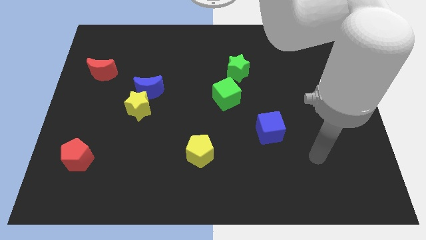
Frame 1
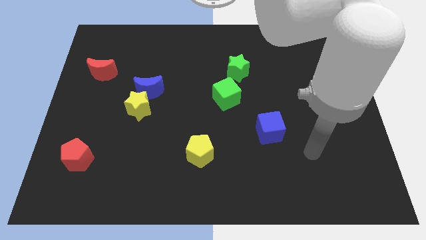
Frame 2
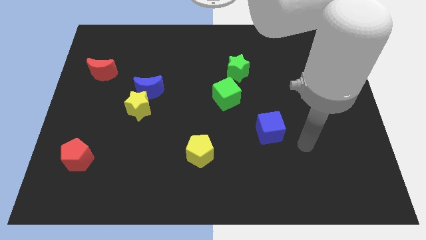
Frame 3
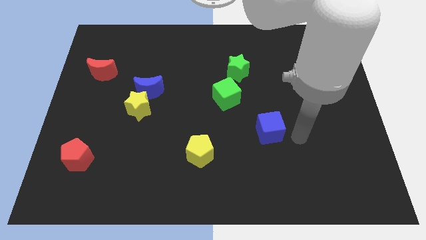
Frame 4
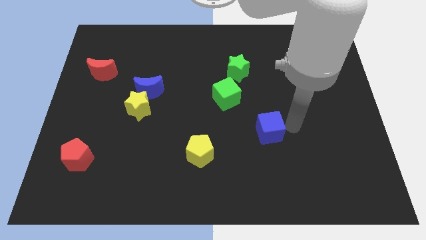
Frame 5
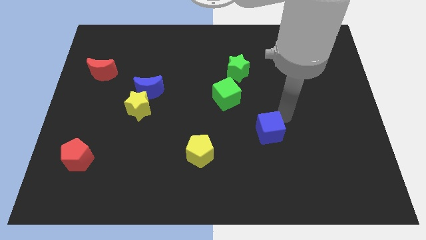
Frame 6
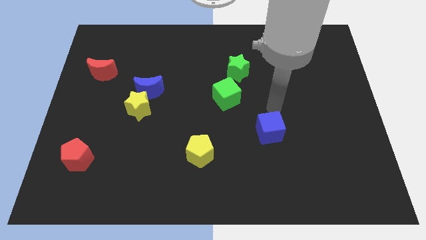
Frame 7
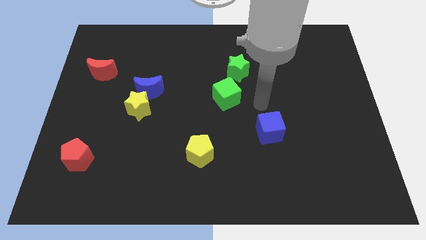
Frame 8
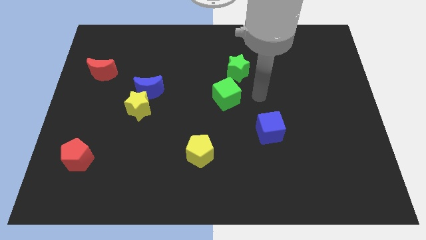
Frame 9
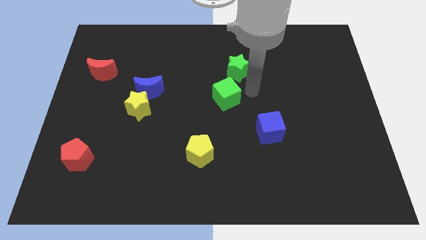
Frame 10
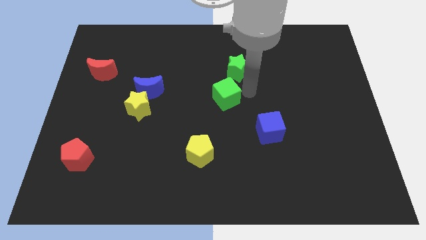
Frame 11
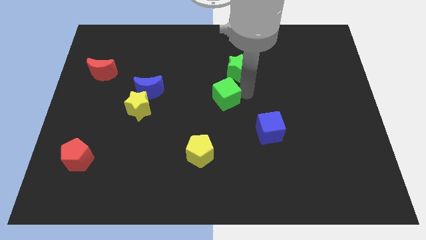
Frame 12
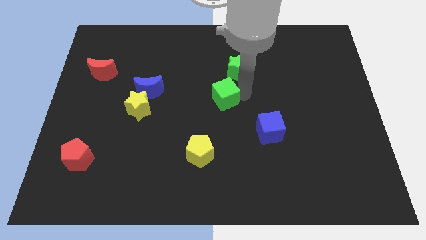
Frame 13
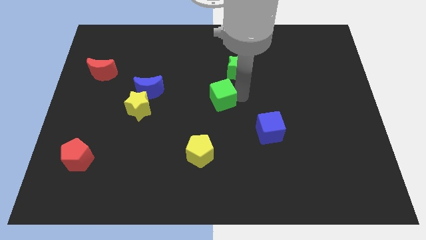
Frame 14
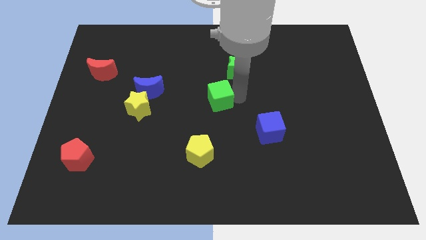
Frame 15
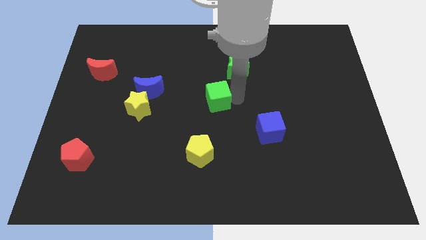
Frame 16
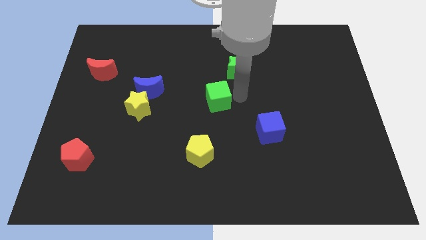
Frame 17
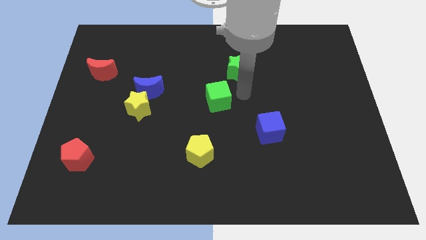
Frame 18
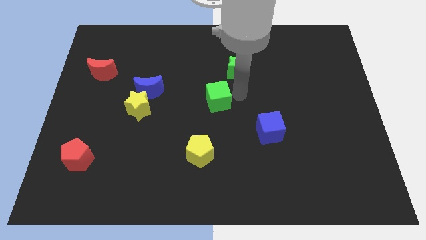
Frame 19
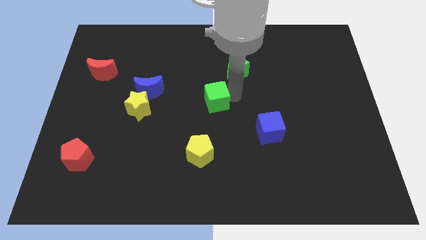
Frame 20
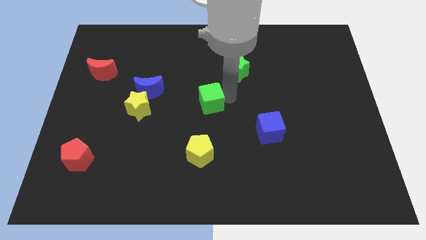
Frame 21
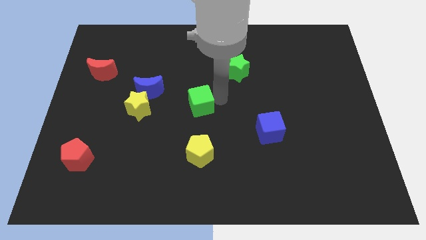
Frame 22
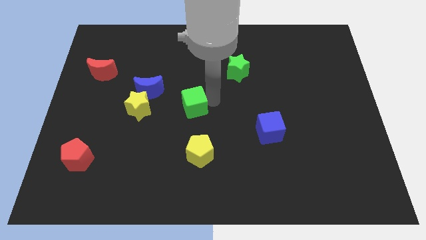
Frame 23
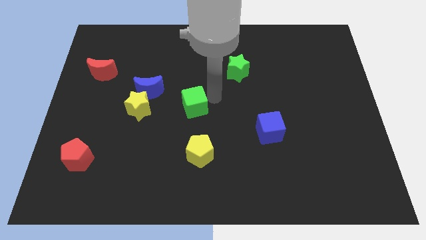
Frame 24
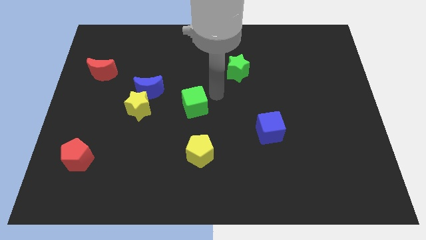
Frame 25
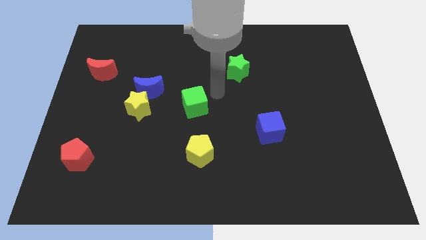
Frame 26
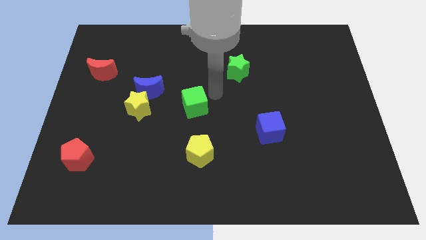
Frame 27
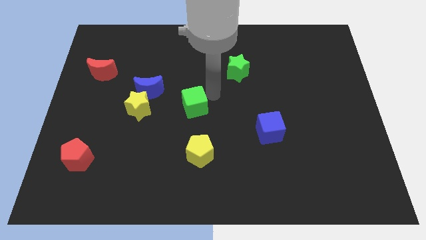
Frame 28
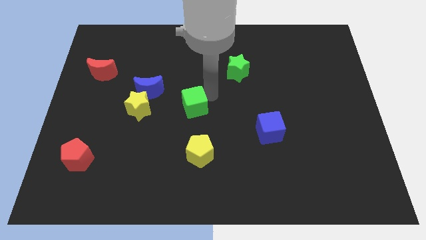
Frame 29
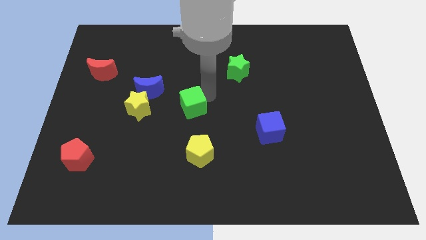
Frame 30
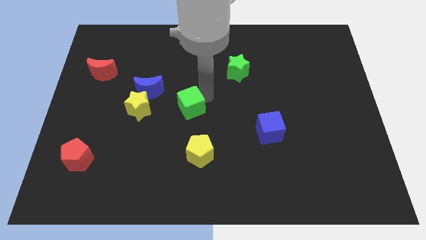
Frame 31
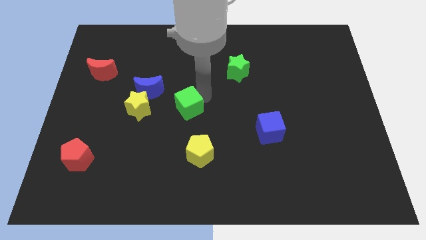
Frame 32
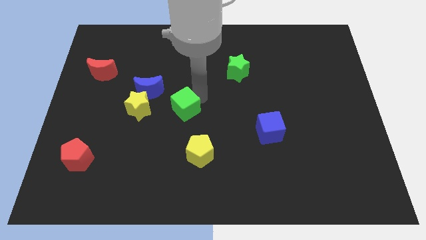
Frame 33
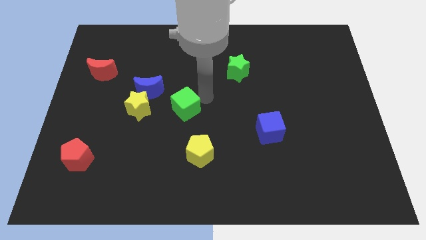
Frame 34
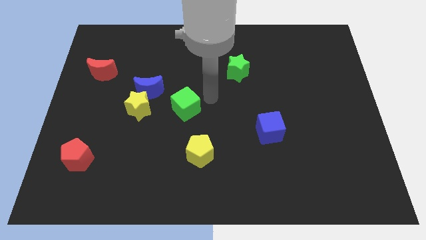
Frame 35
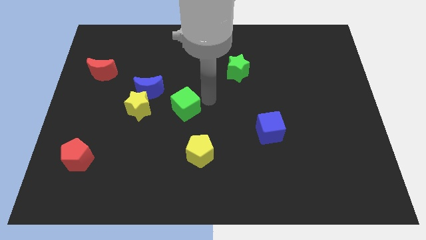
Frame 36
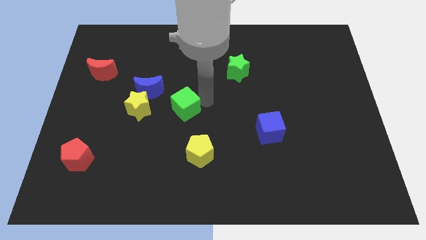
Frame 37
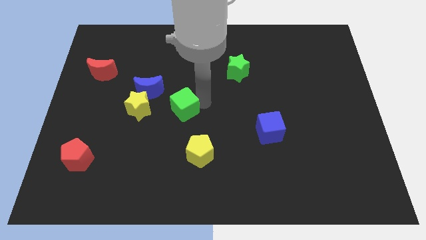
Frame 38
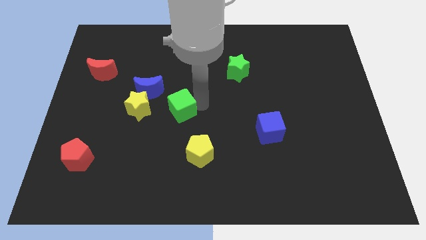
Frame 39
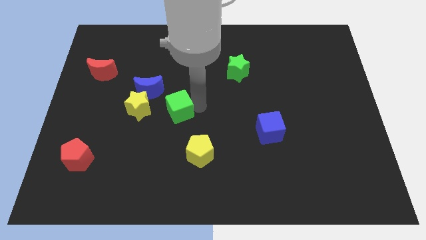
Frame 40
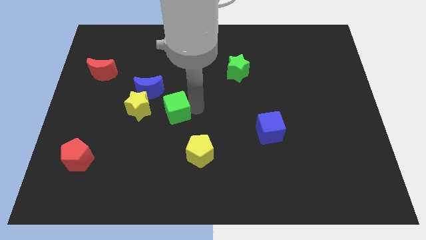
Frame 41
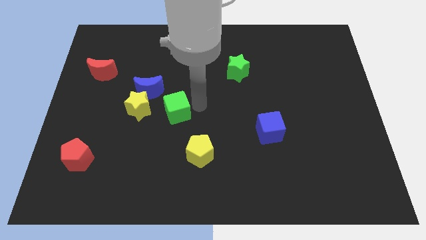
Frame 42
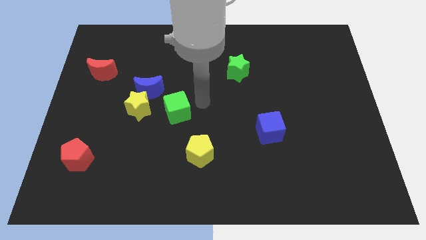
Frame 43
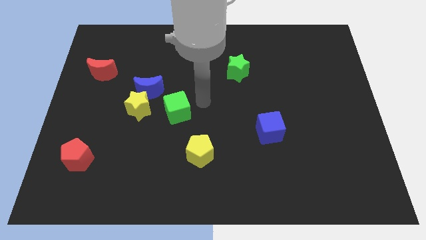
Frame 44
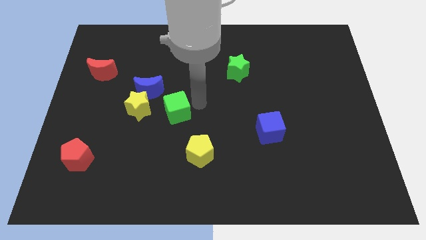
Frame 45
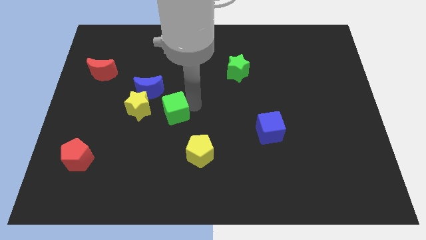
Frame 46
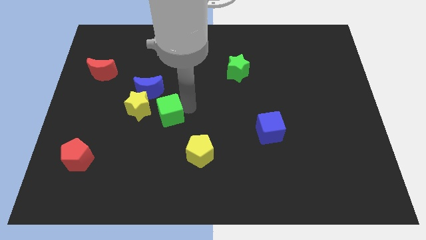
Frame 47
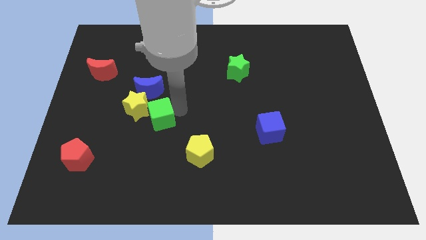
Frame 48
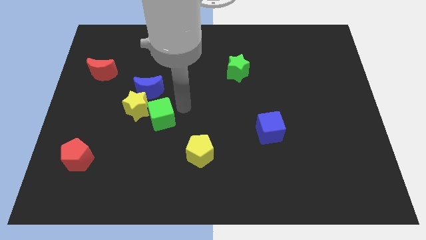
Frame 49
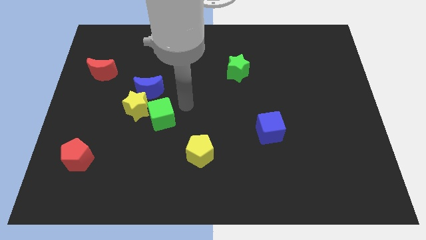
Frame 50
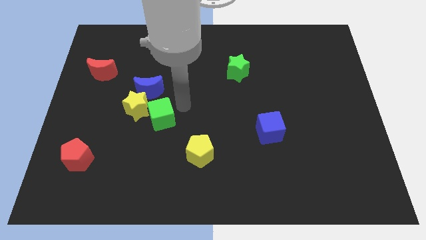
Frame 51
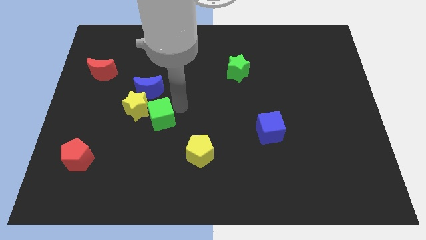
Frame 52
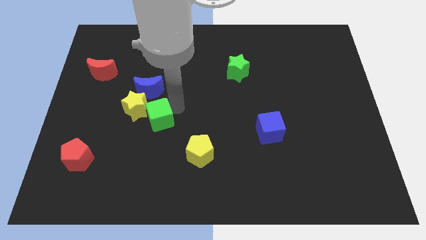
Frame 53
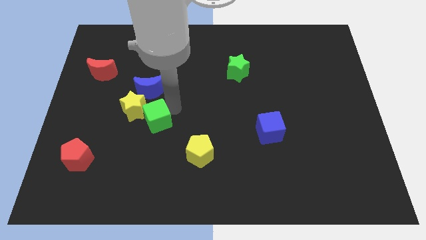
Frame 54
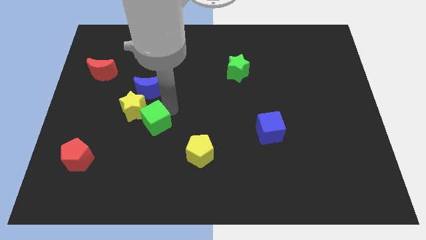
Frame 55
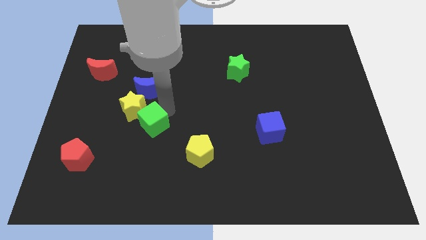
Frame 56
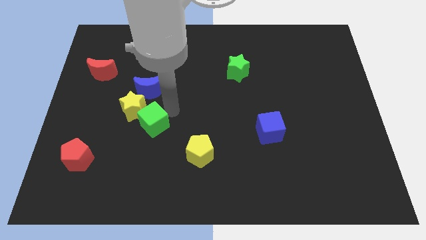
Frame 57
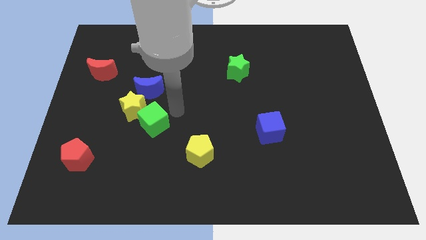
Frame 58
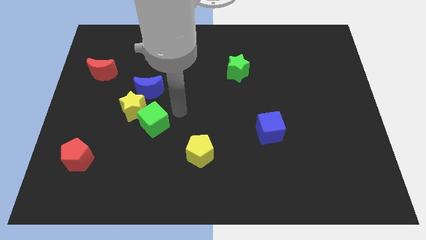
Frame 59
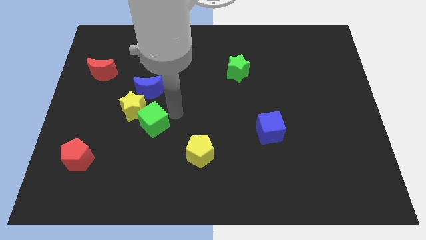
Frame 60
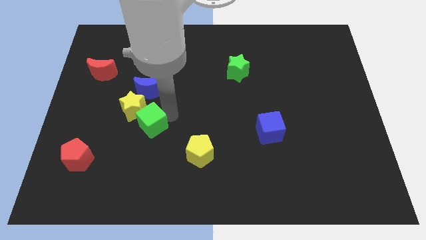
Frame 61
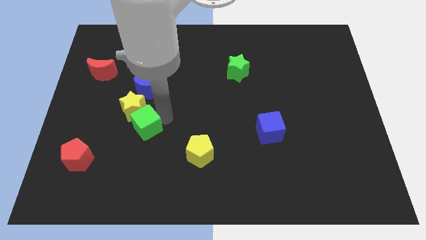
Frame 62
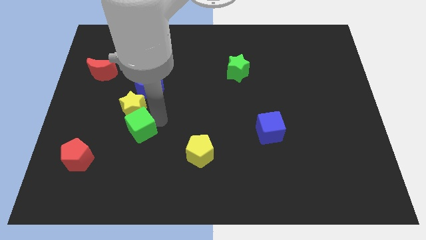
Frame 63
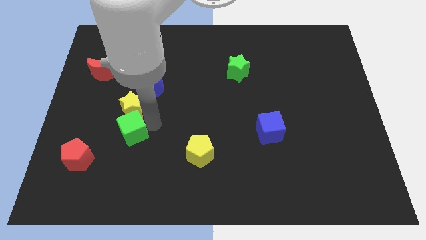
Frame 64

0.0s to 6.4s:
slide the green cube diagonally down and to the left of the yellow star

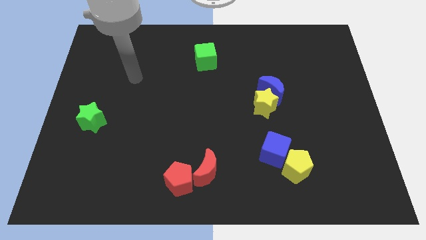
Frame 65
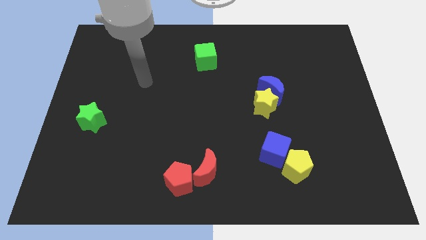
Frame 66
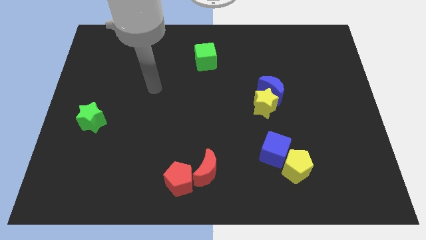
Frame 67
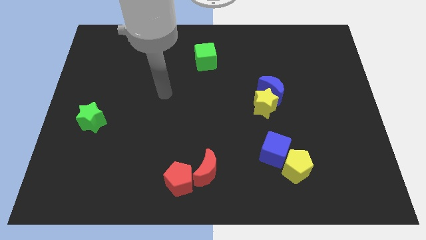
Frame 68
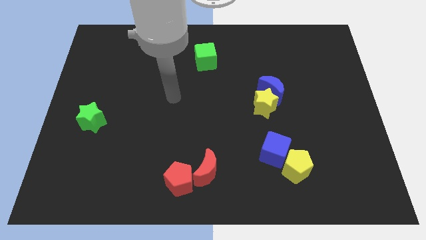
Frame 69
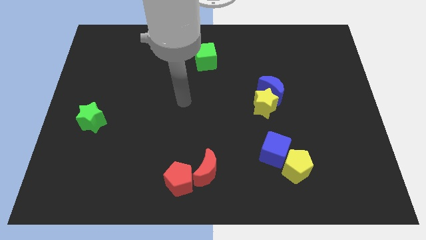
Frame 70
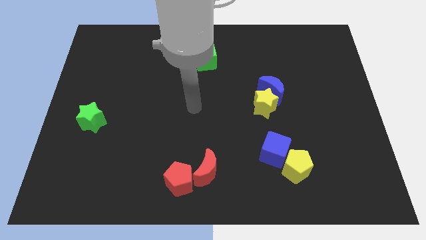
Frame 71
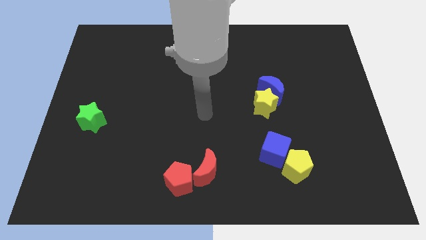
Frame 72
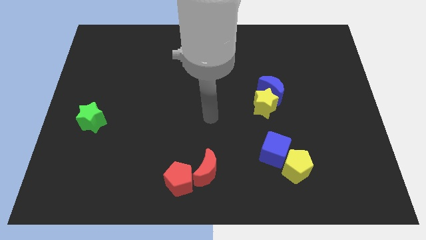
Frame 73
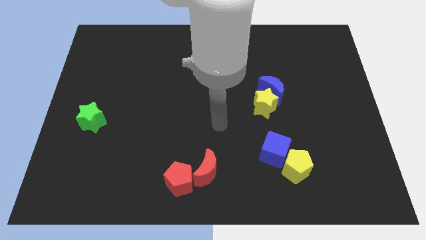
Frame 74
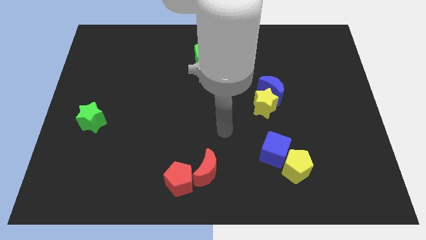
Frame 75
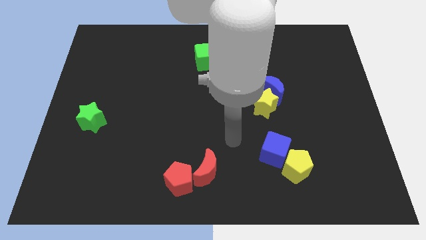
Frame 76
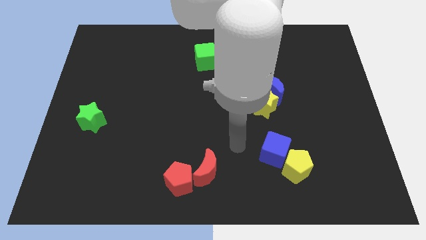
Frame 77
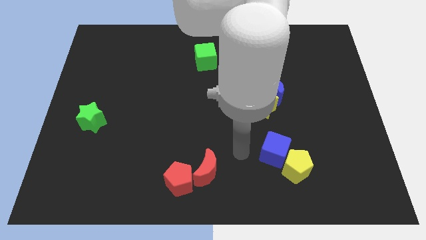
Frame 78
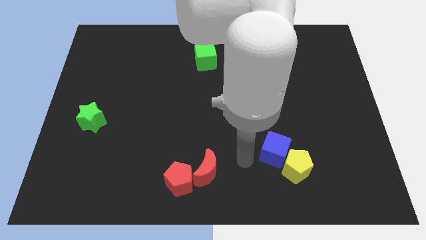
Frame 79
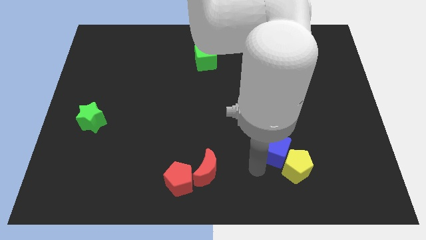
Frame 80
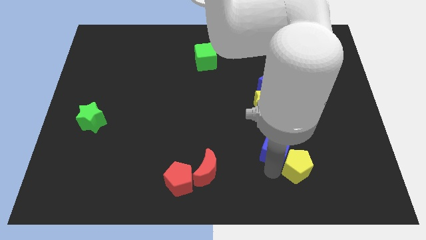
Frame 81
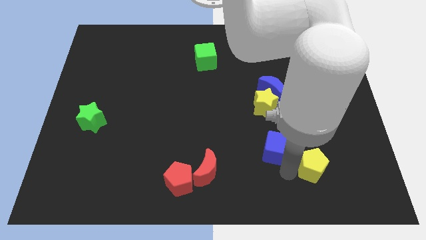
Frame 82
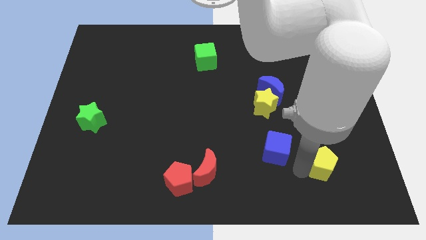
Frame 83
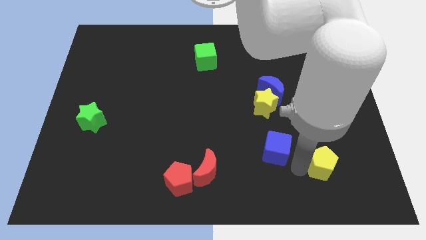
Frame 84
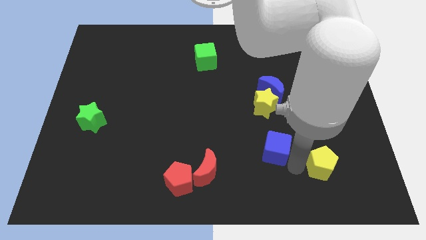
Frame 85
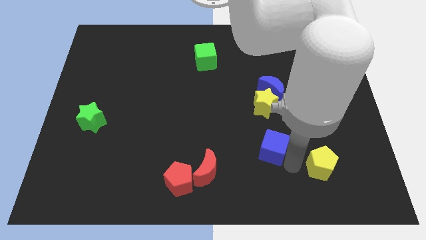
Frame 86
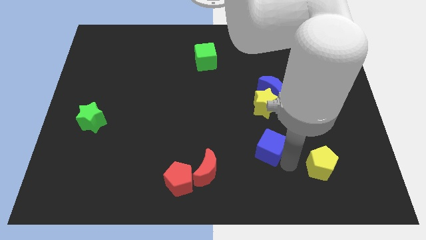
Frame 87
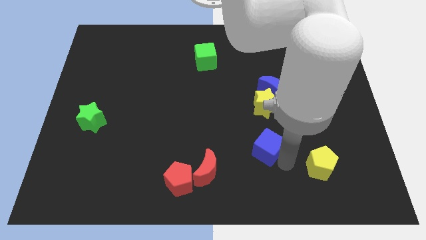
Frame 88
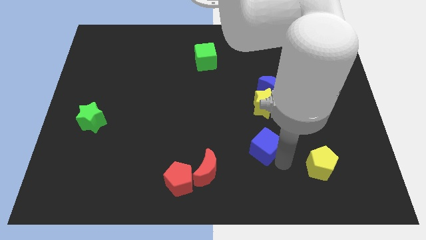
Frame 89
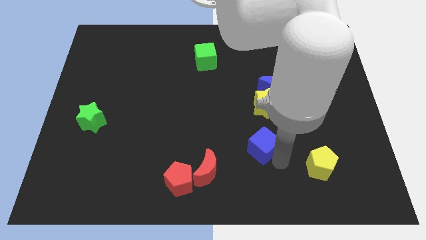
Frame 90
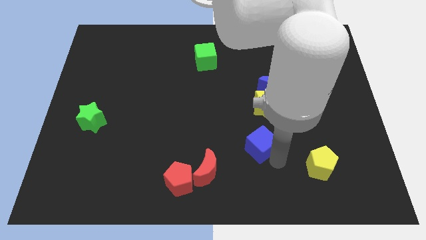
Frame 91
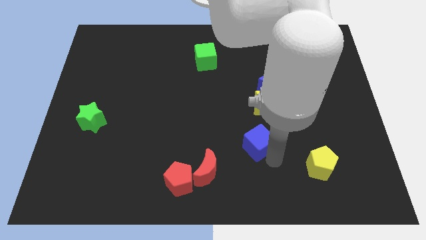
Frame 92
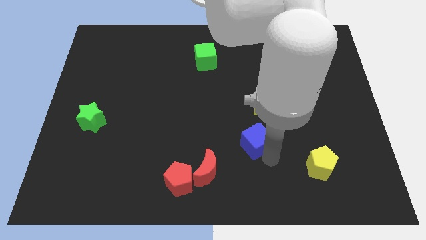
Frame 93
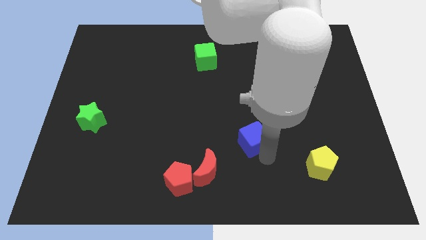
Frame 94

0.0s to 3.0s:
push the blue cube to the bottom left side of the yellow star
